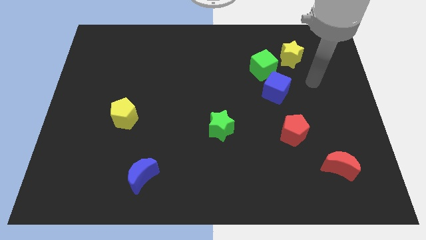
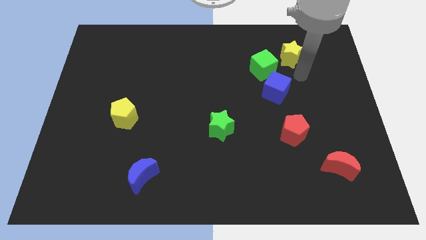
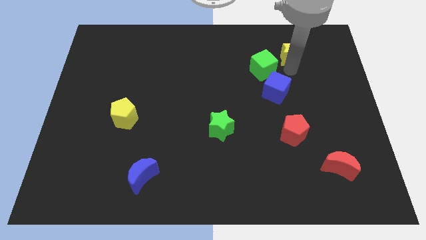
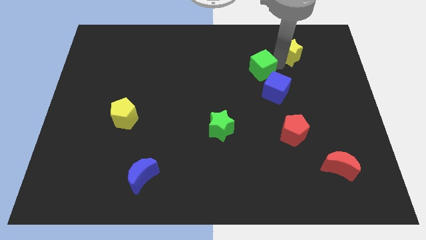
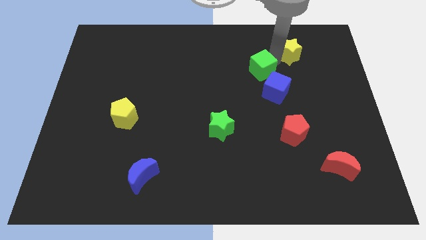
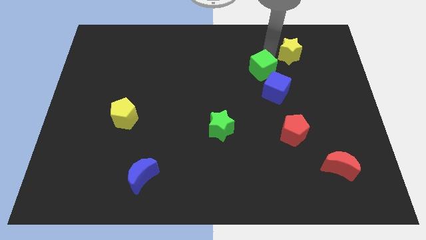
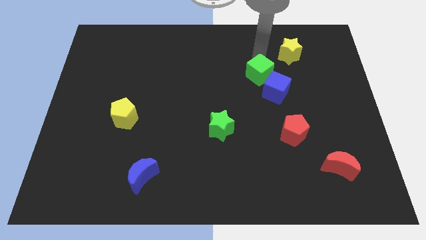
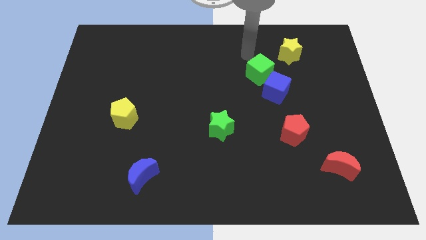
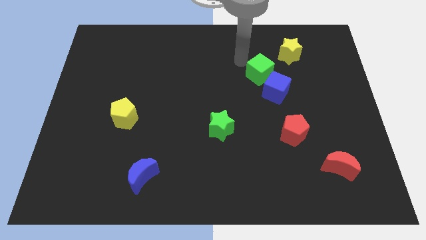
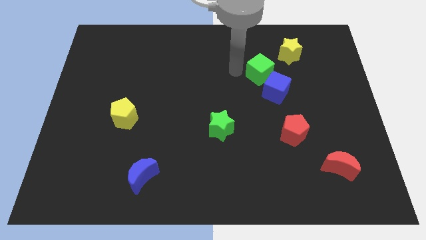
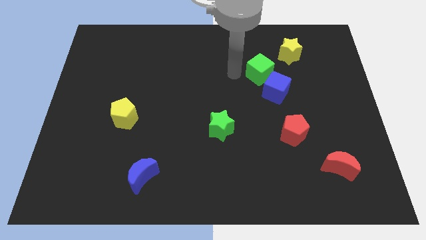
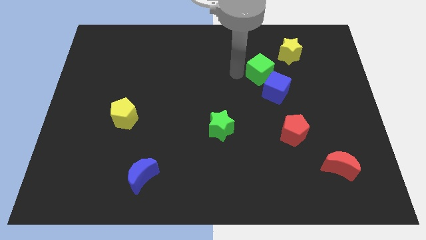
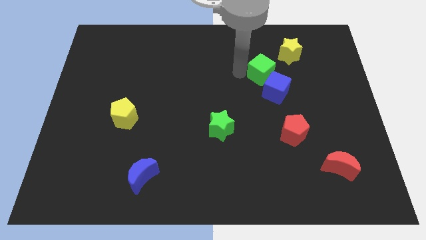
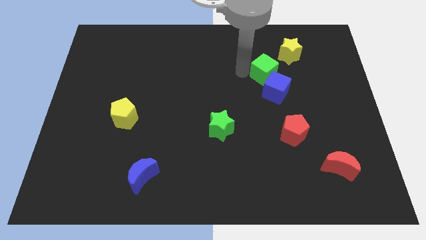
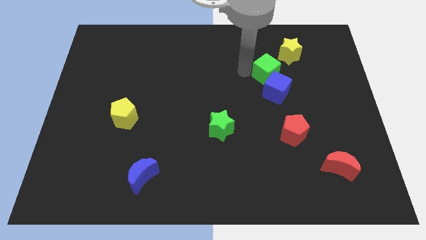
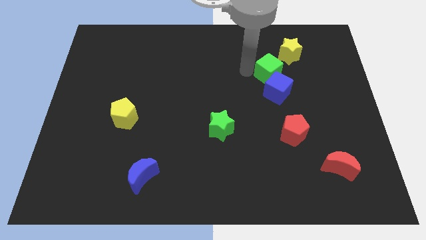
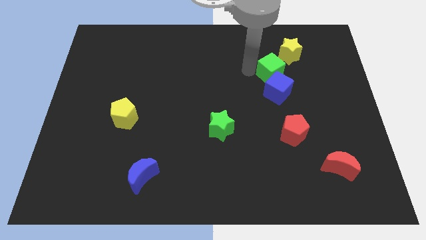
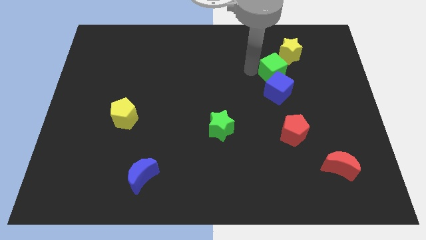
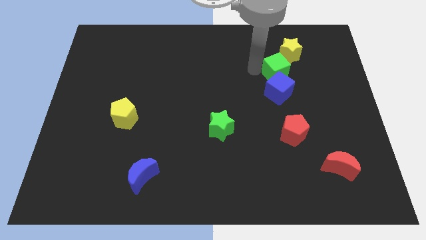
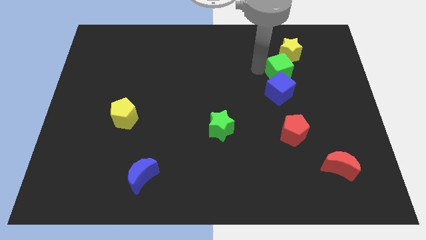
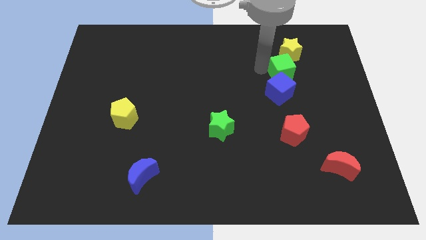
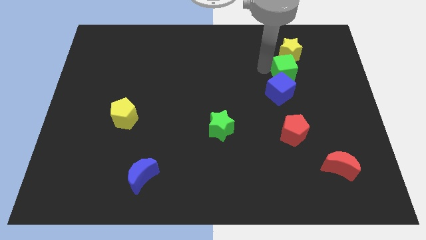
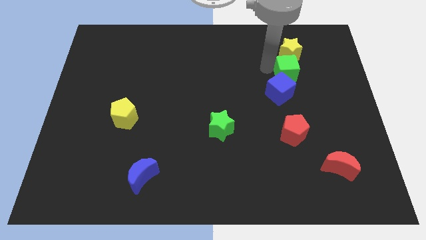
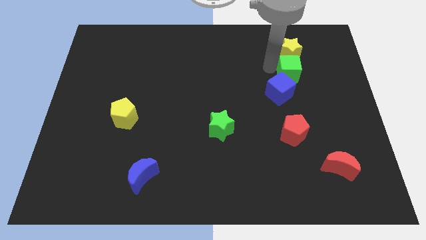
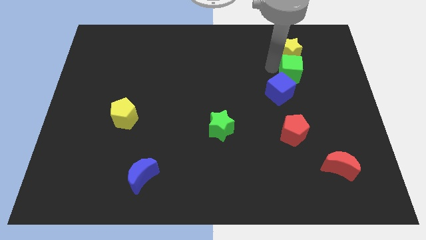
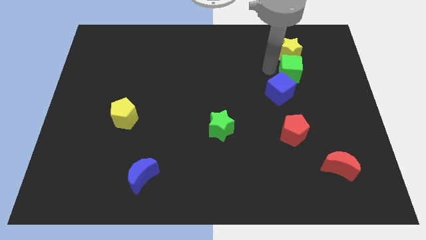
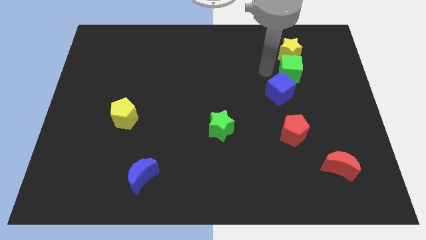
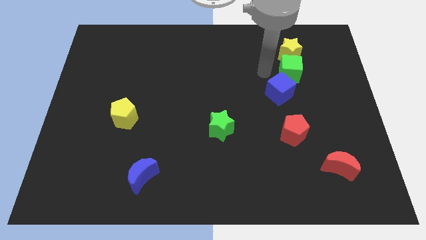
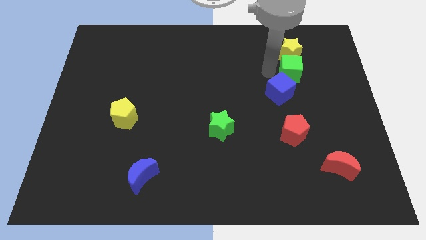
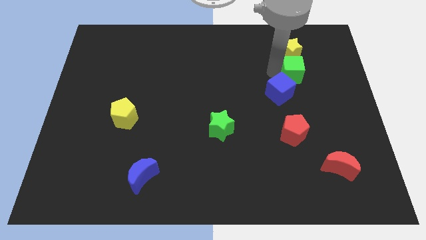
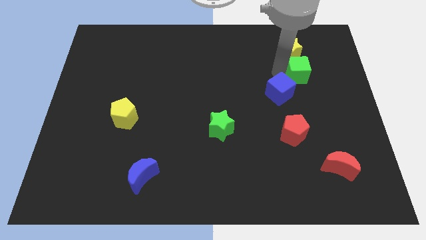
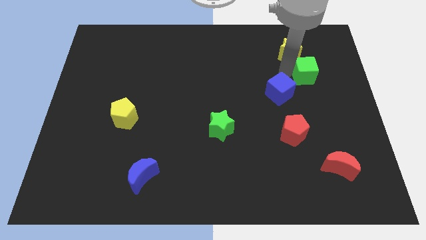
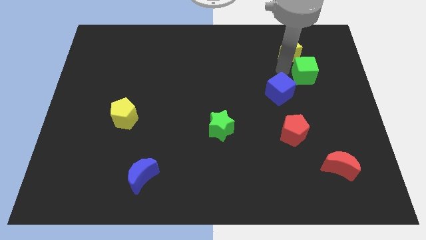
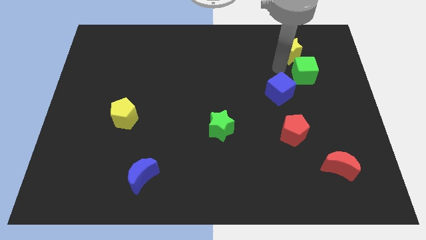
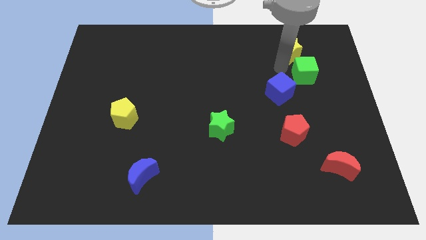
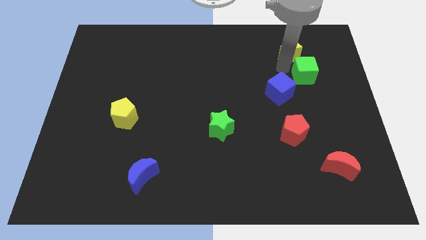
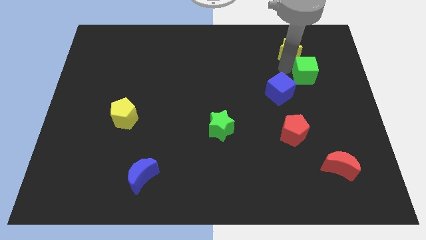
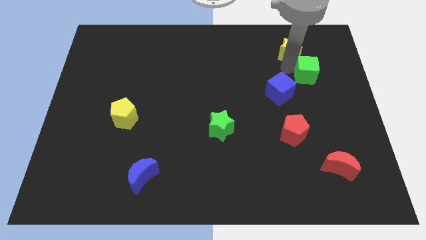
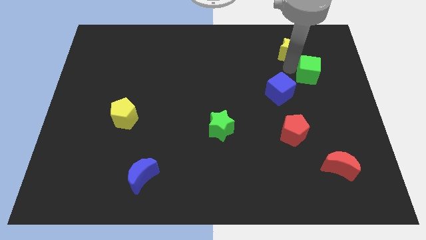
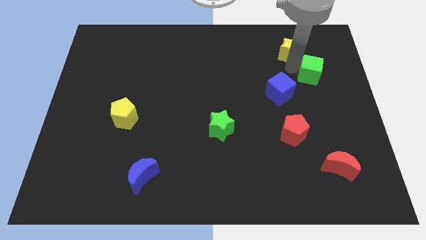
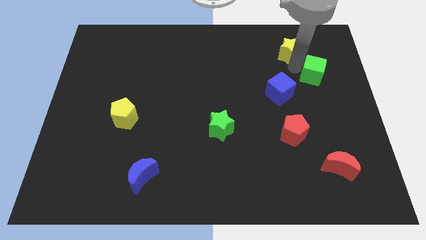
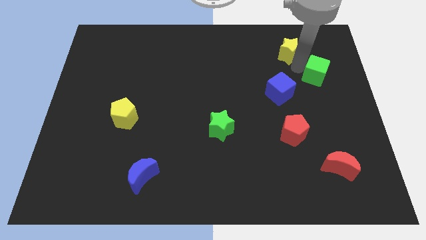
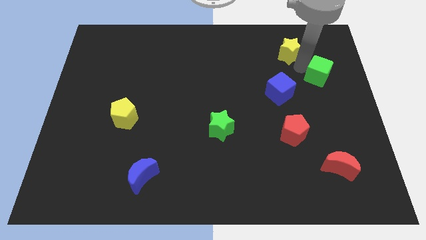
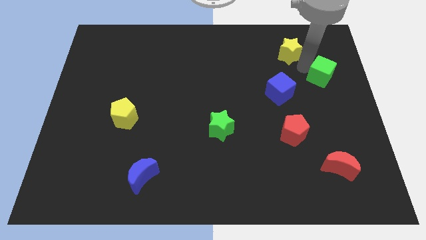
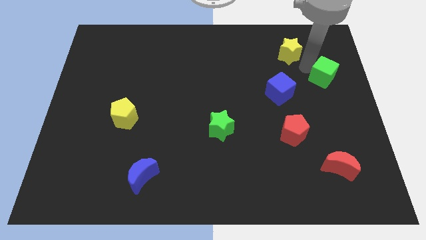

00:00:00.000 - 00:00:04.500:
push the green cube to the right side of the board

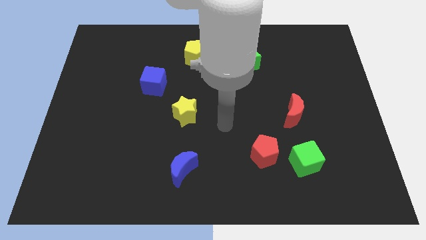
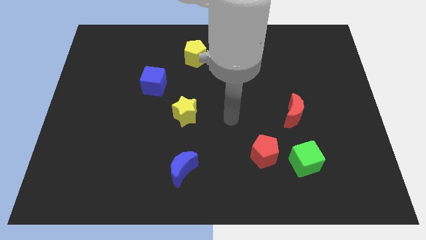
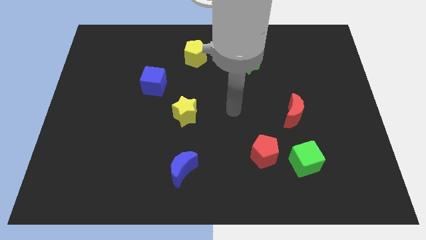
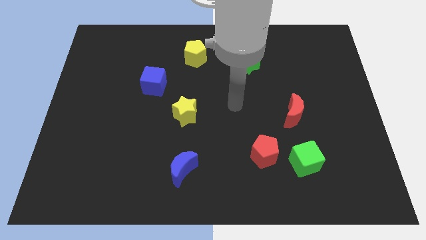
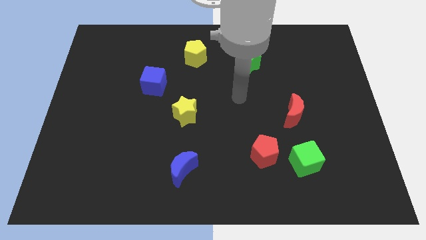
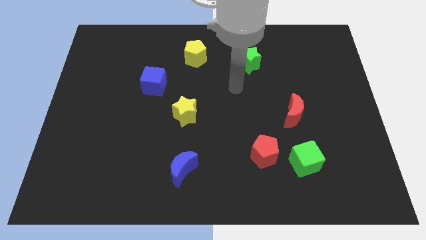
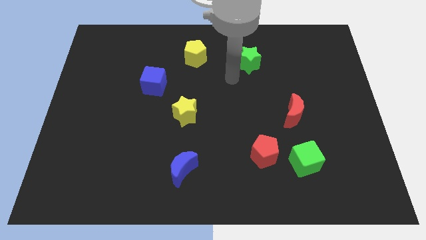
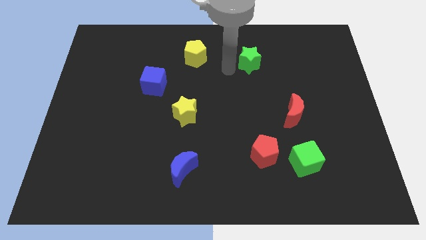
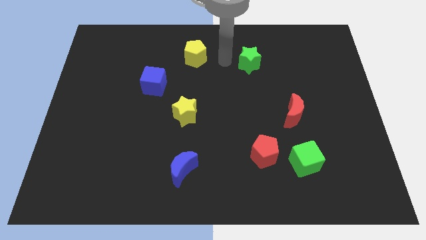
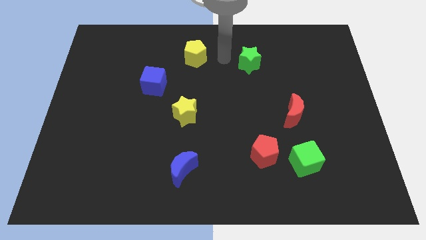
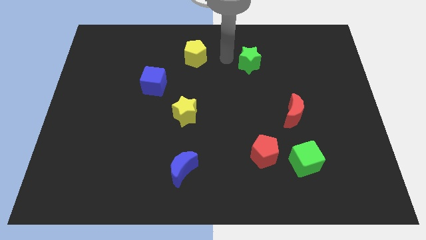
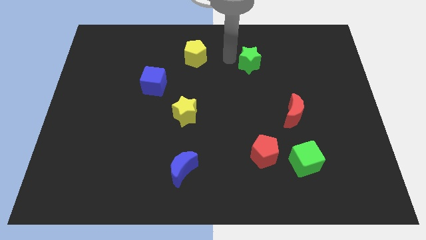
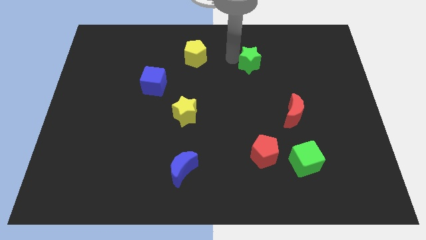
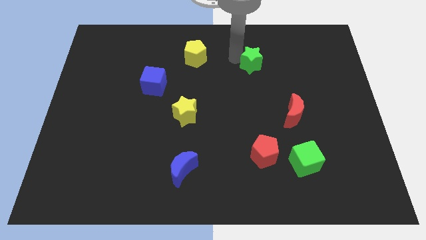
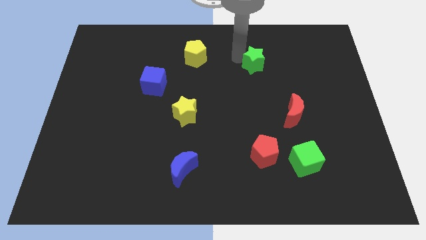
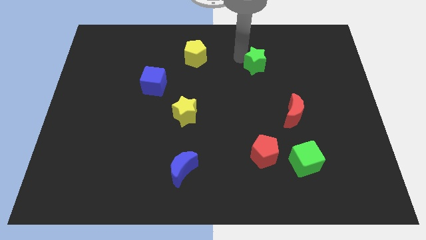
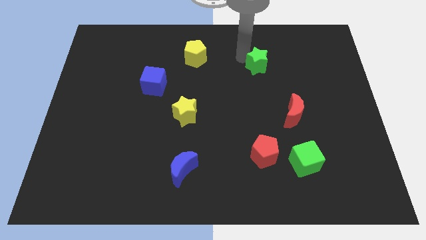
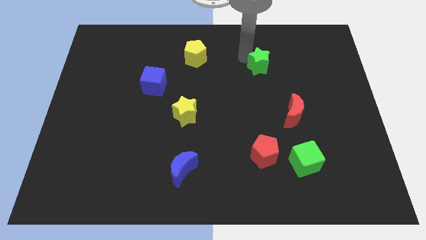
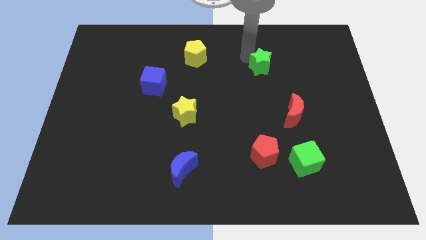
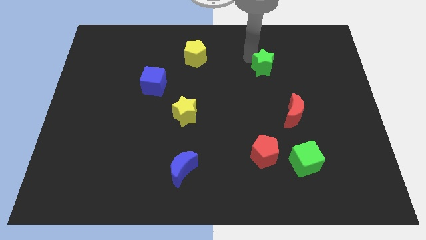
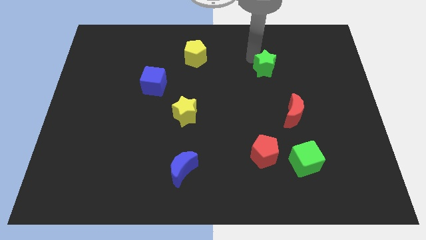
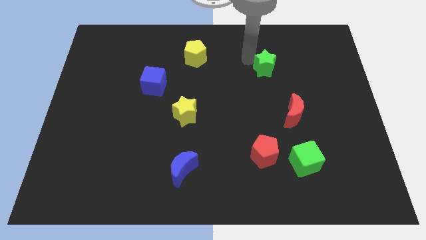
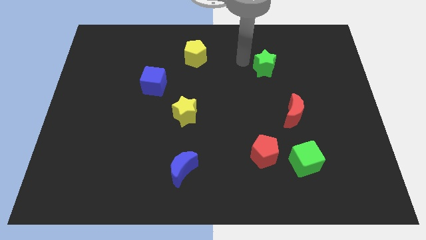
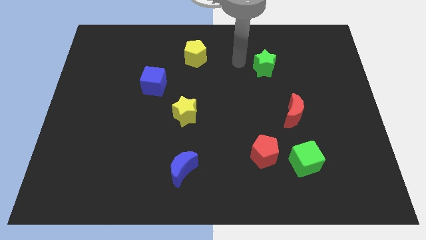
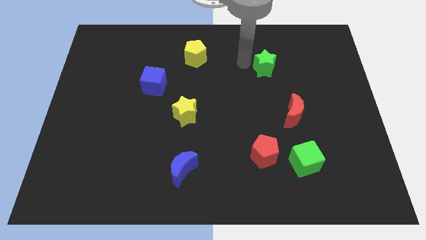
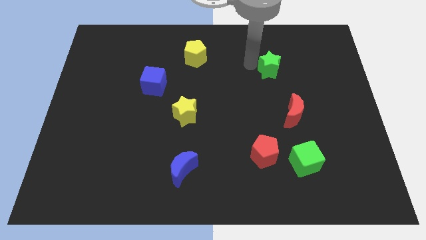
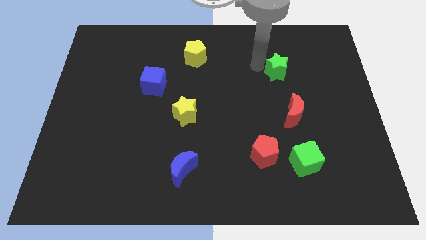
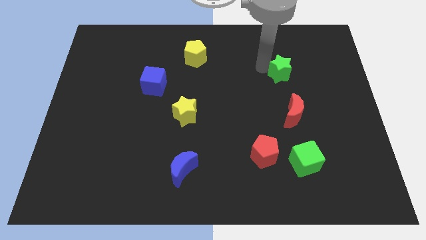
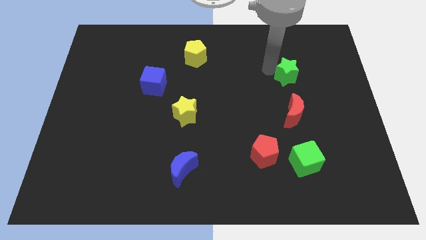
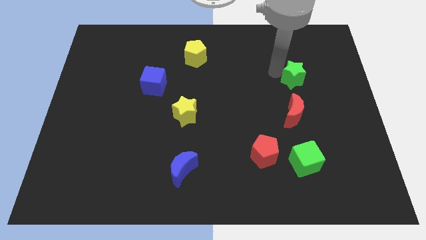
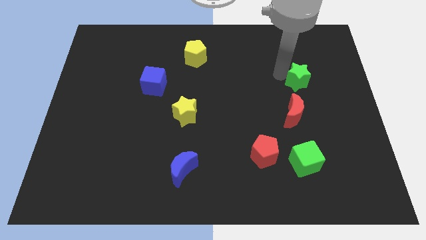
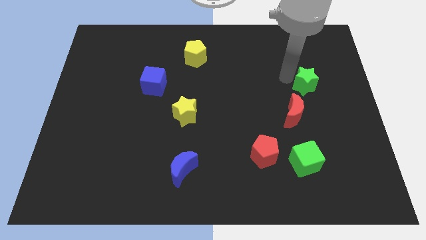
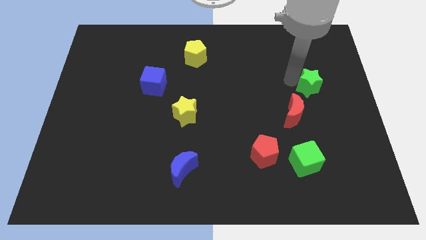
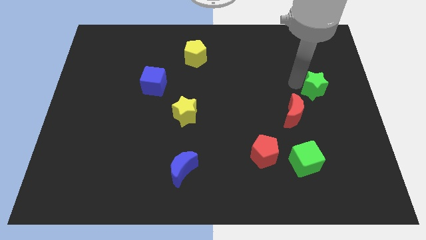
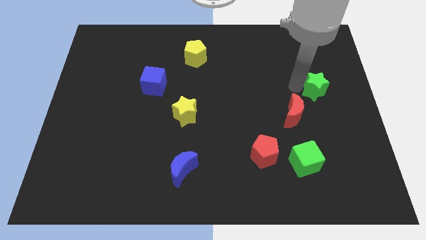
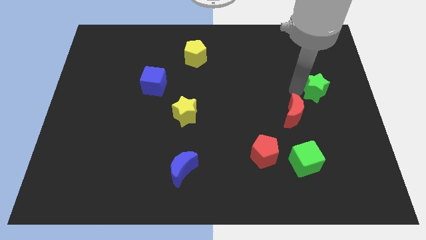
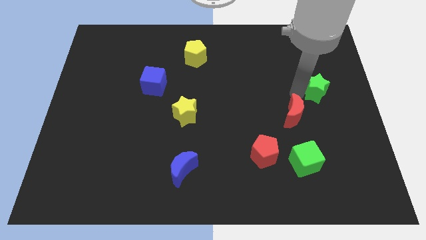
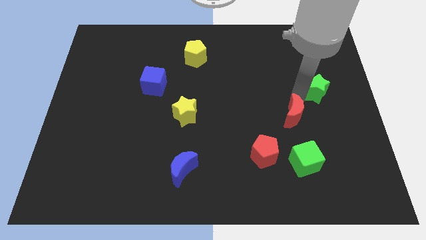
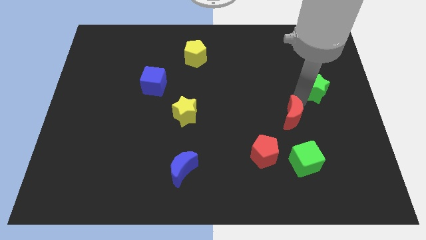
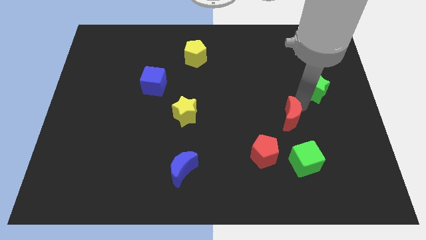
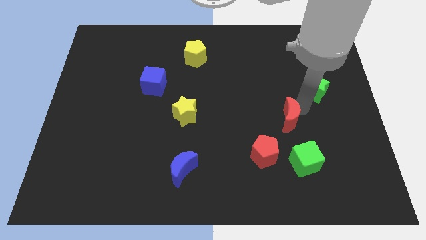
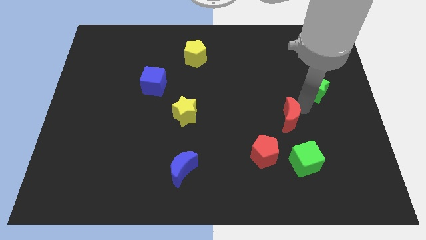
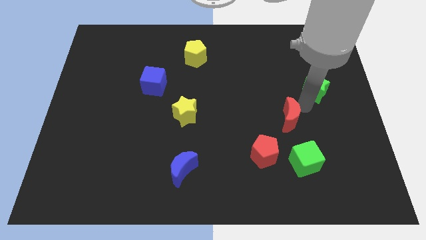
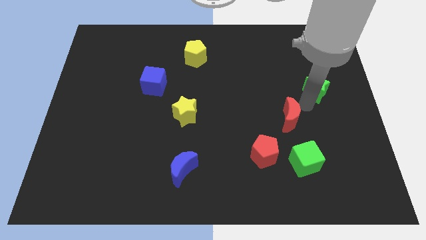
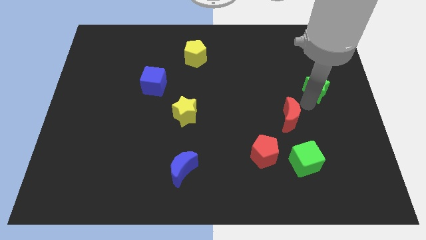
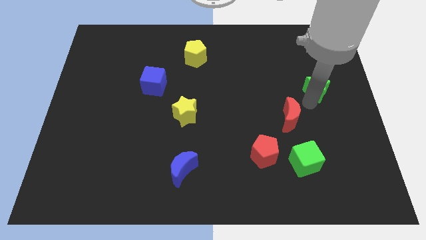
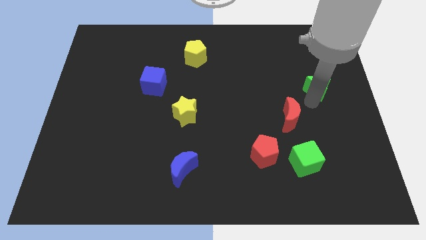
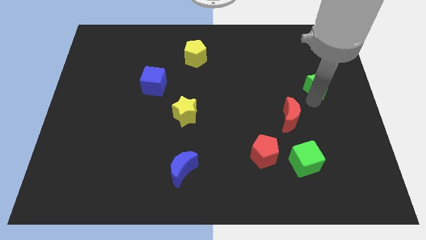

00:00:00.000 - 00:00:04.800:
move the green star to the right side of the board
